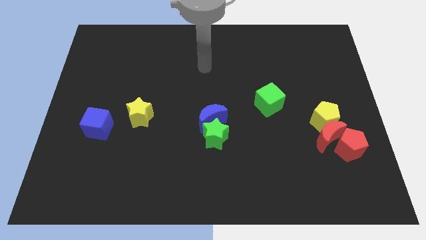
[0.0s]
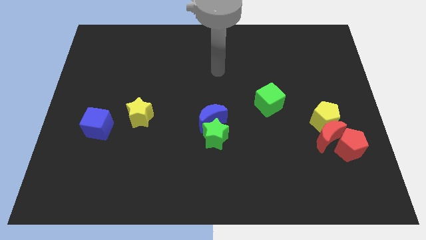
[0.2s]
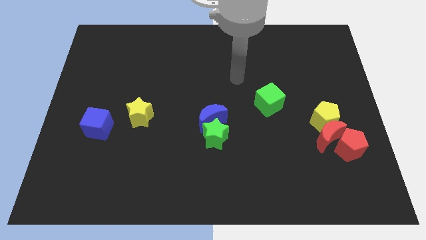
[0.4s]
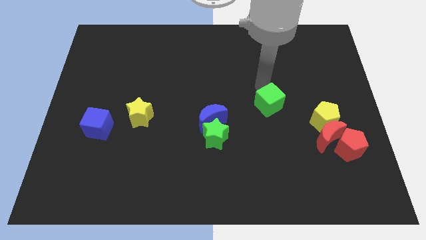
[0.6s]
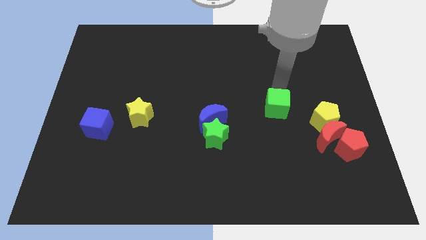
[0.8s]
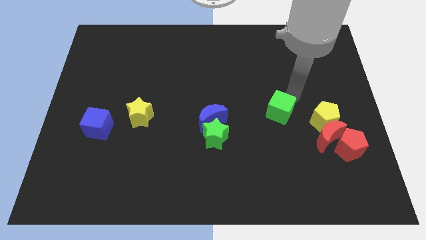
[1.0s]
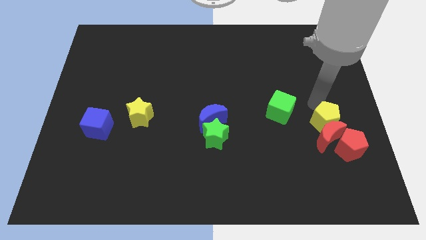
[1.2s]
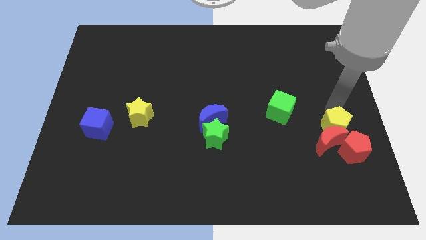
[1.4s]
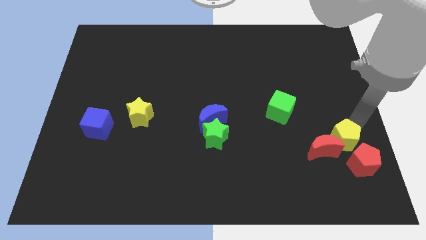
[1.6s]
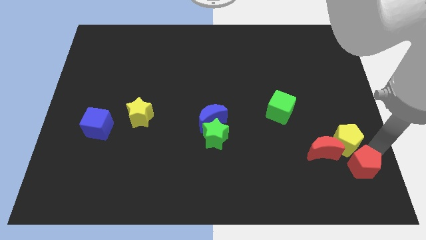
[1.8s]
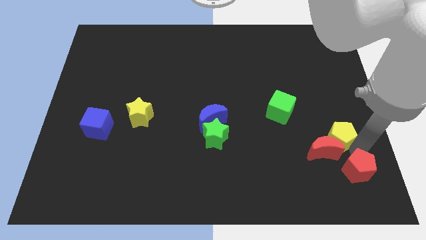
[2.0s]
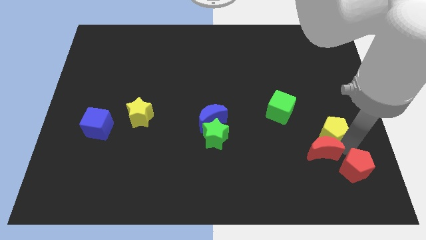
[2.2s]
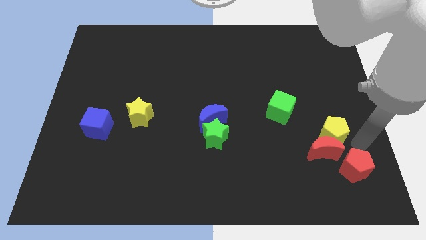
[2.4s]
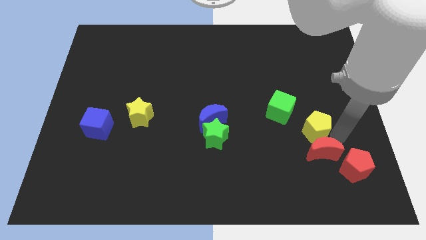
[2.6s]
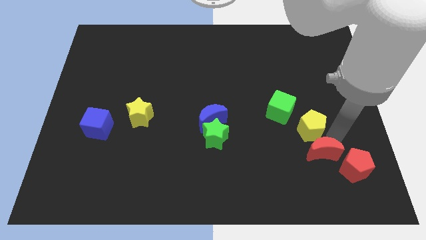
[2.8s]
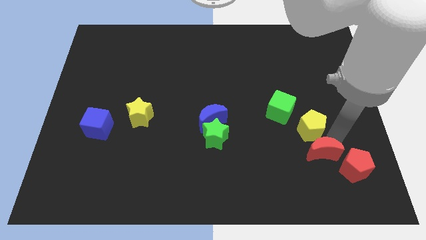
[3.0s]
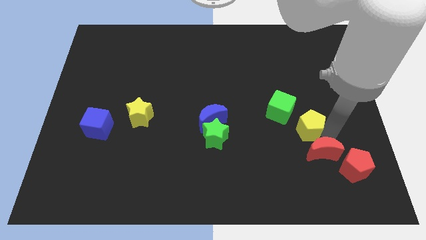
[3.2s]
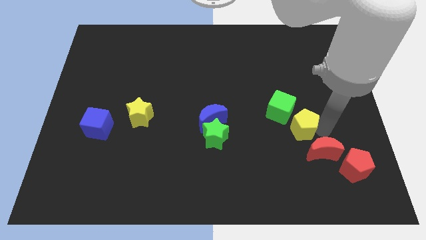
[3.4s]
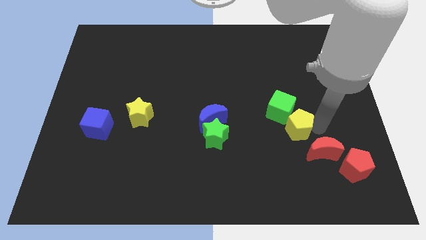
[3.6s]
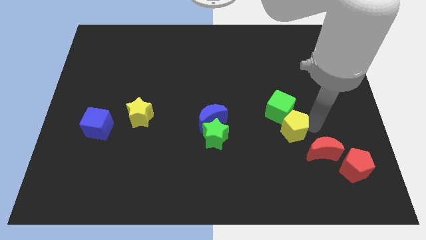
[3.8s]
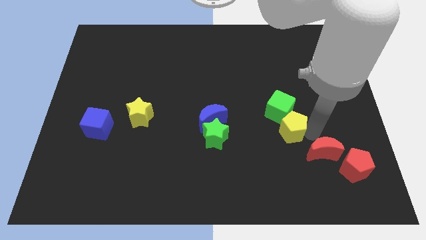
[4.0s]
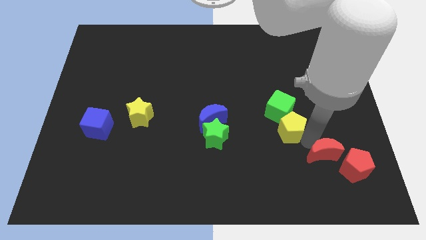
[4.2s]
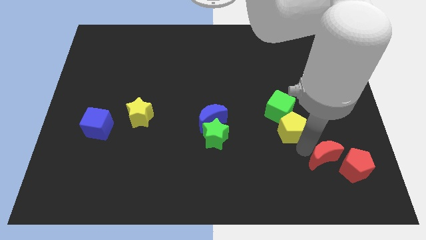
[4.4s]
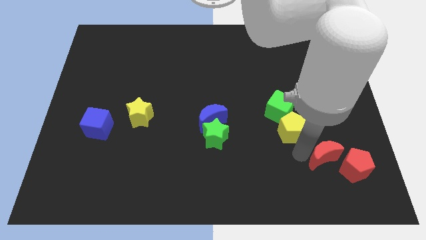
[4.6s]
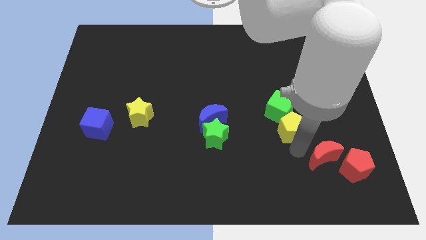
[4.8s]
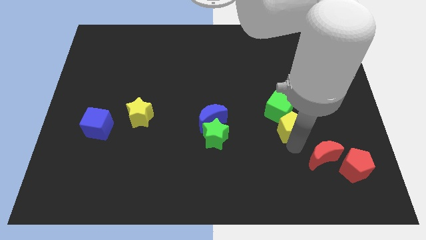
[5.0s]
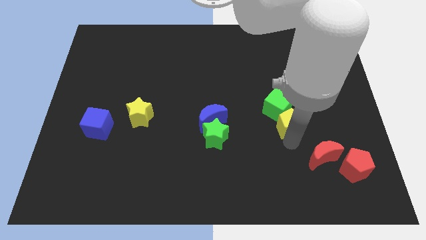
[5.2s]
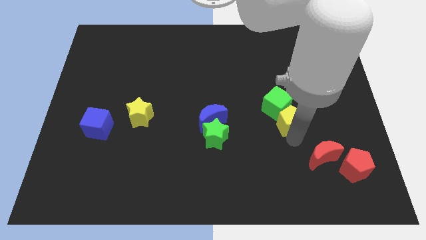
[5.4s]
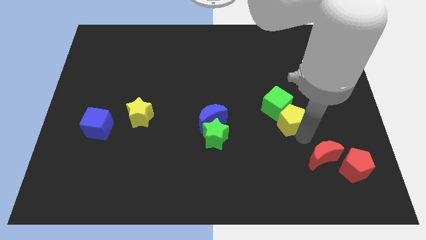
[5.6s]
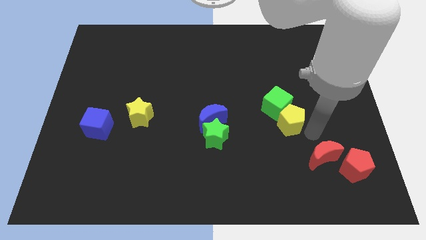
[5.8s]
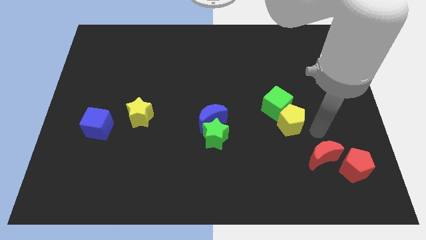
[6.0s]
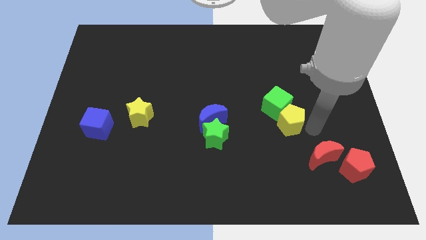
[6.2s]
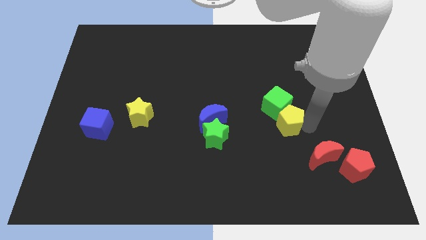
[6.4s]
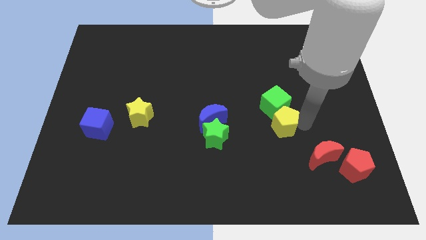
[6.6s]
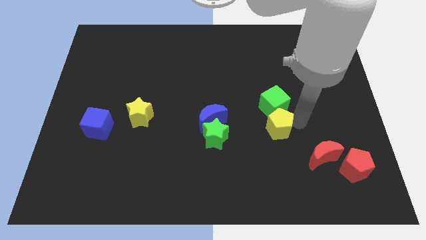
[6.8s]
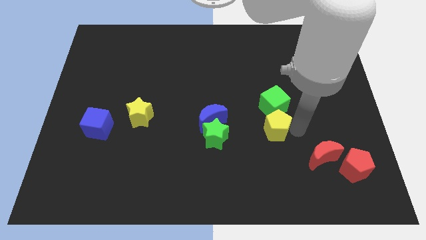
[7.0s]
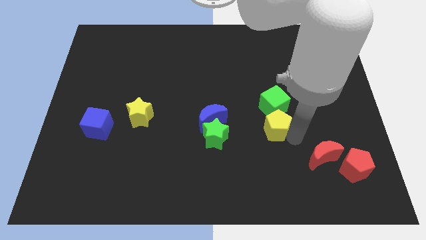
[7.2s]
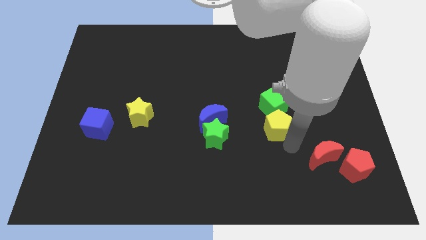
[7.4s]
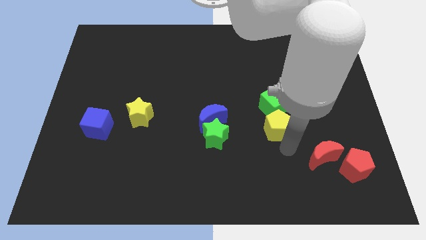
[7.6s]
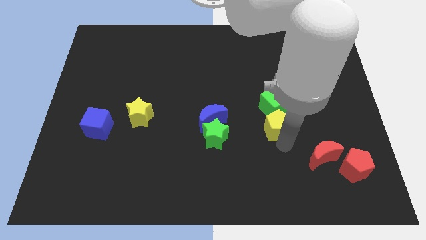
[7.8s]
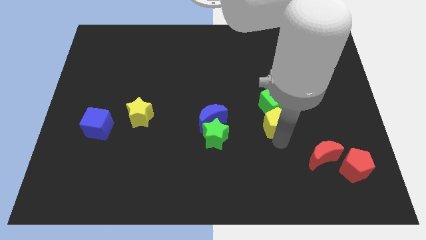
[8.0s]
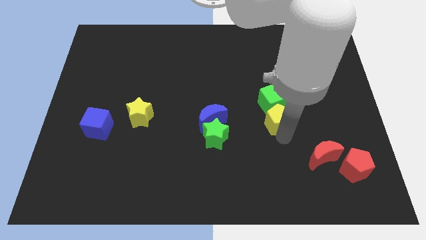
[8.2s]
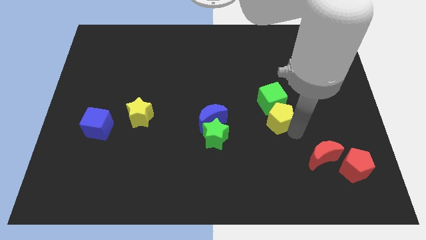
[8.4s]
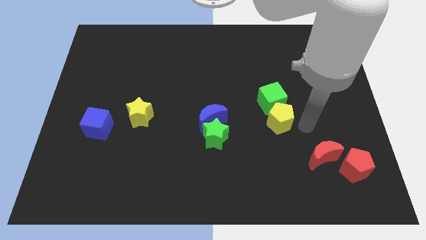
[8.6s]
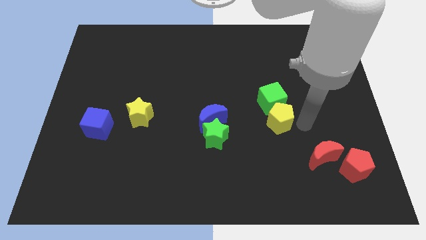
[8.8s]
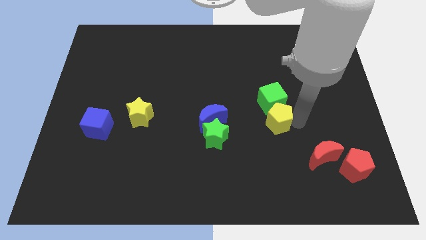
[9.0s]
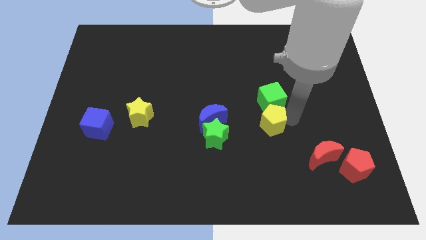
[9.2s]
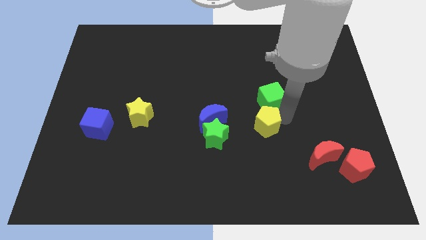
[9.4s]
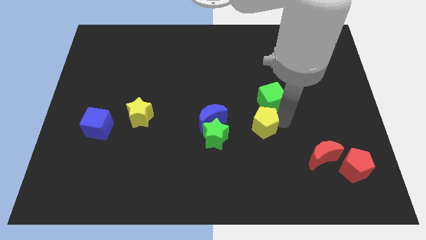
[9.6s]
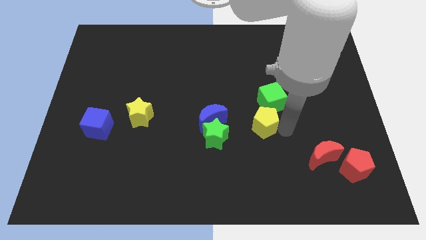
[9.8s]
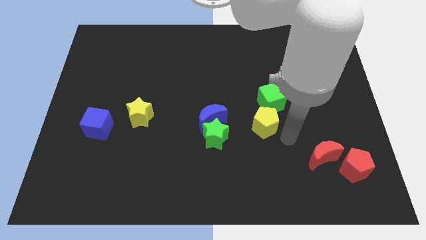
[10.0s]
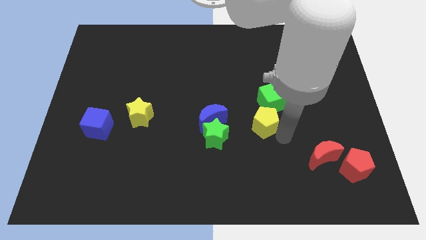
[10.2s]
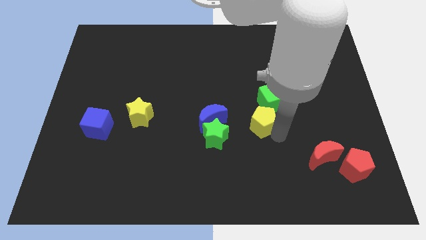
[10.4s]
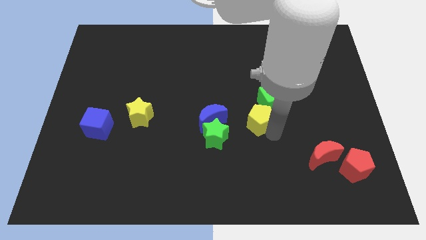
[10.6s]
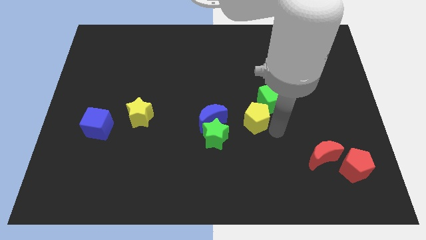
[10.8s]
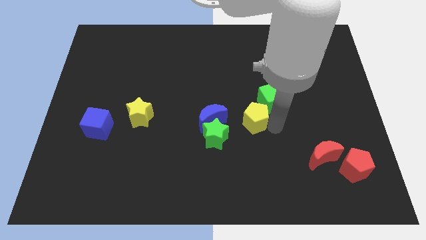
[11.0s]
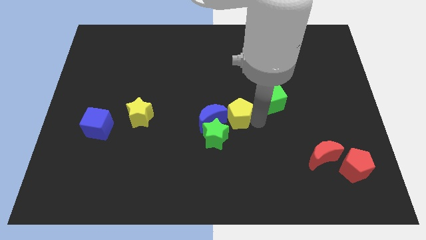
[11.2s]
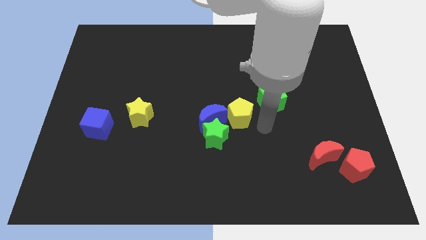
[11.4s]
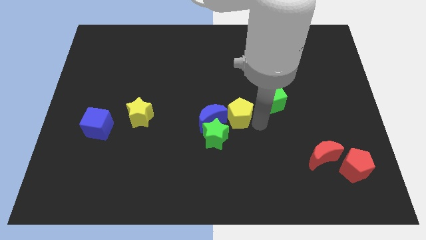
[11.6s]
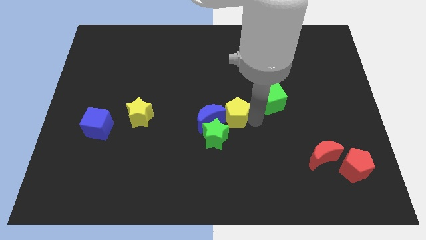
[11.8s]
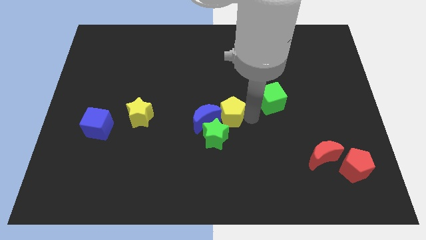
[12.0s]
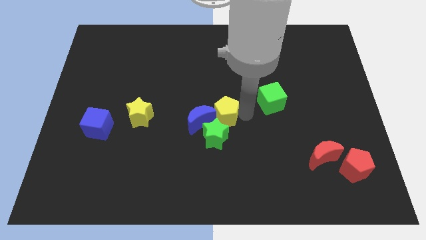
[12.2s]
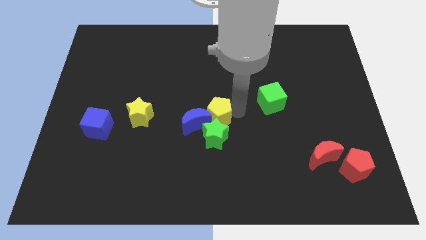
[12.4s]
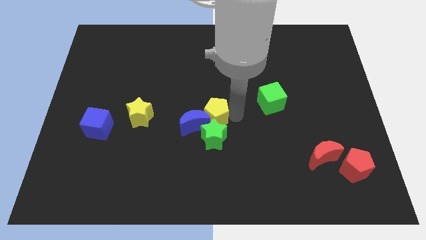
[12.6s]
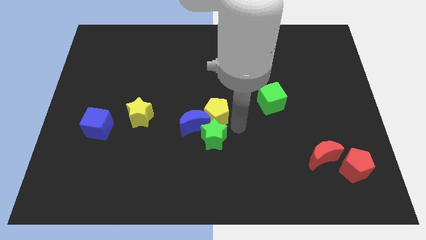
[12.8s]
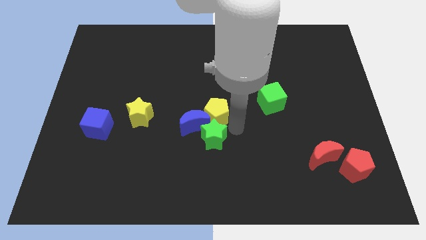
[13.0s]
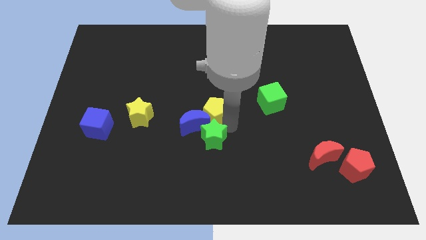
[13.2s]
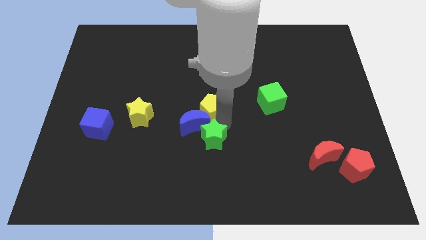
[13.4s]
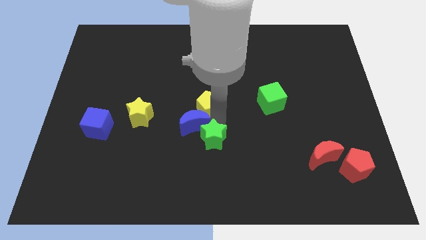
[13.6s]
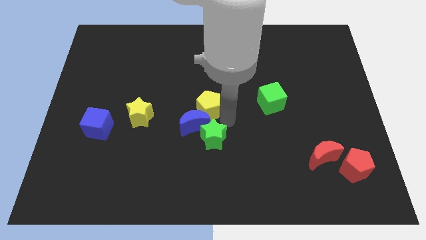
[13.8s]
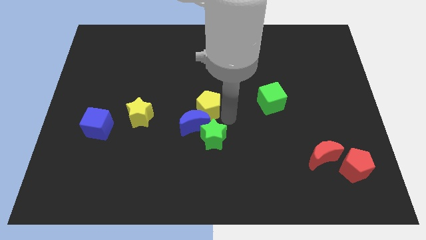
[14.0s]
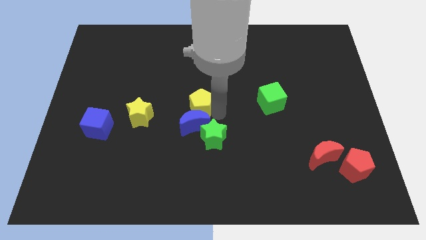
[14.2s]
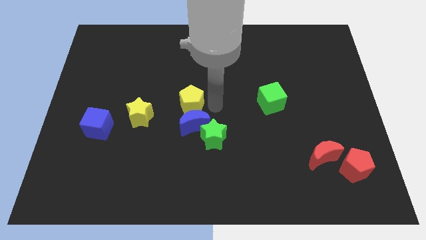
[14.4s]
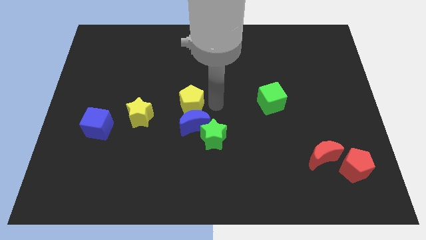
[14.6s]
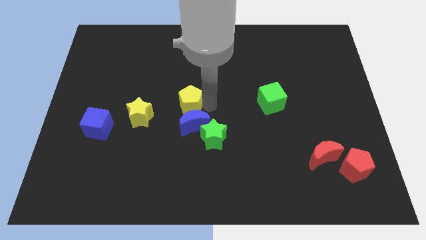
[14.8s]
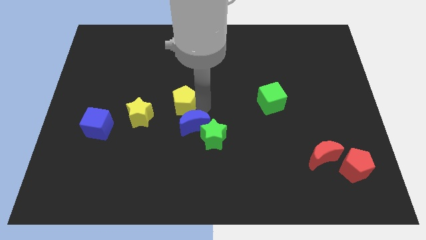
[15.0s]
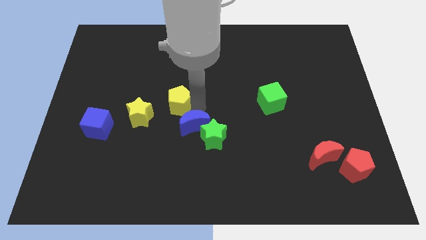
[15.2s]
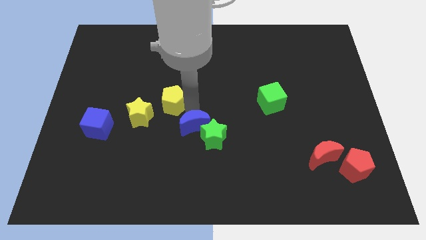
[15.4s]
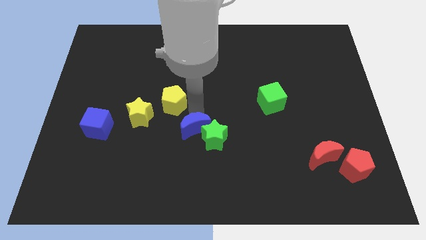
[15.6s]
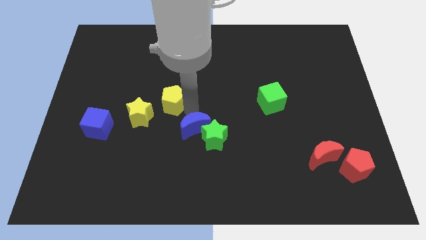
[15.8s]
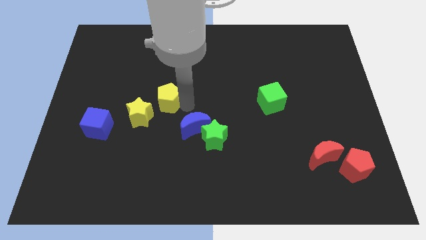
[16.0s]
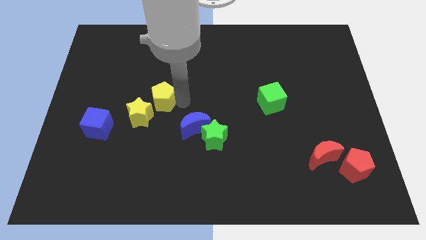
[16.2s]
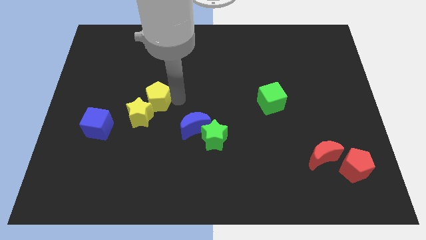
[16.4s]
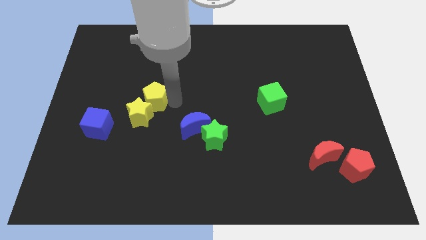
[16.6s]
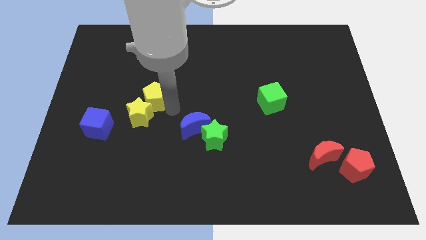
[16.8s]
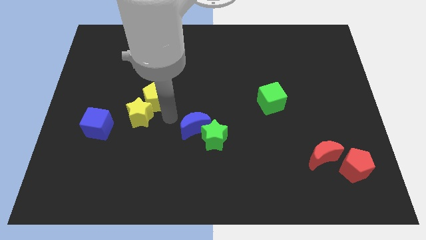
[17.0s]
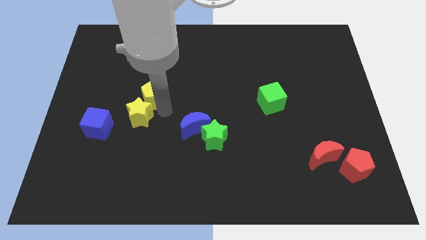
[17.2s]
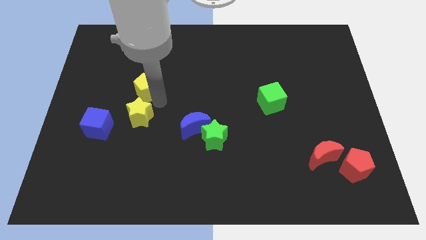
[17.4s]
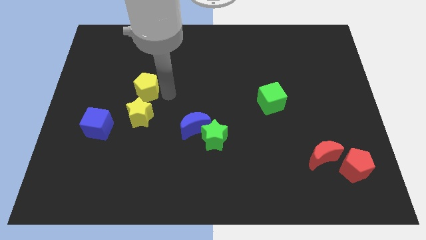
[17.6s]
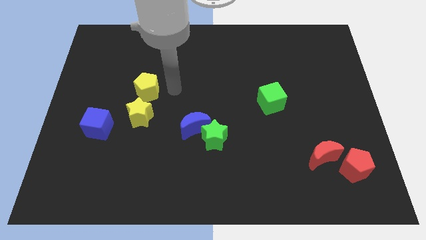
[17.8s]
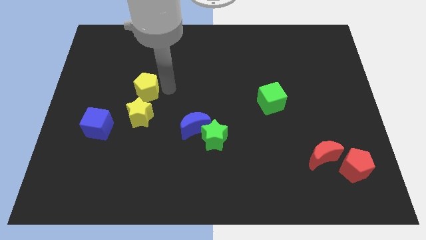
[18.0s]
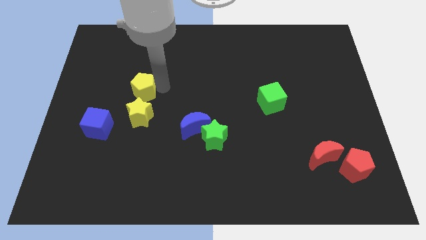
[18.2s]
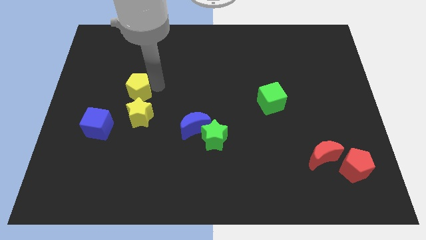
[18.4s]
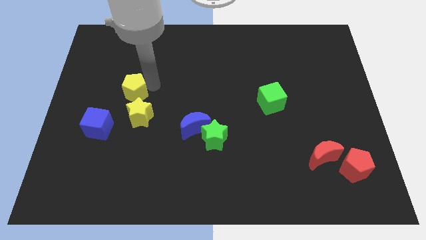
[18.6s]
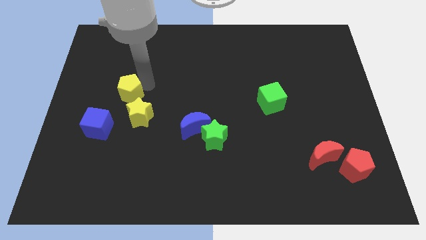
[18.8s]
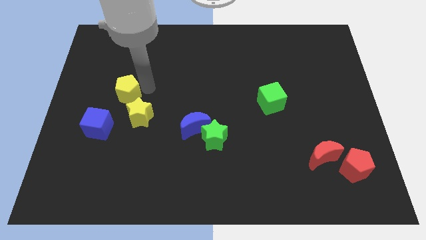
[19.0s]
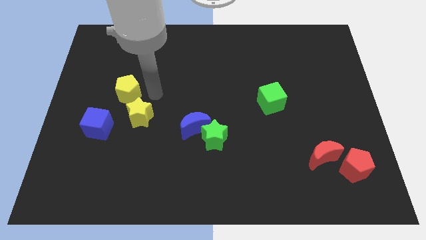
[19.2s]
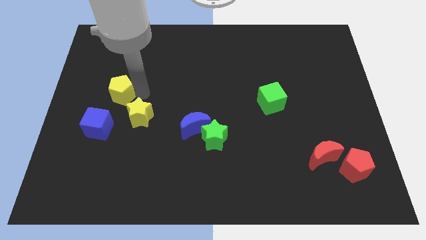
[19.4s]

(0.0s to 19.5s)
push the yellow pentagon above the blue cube
